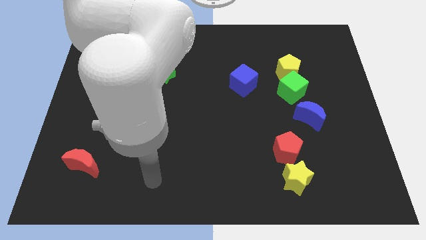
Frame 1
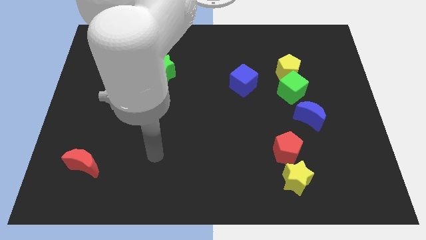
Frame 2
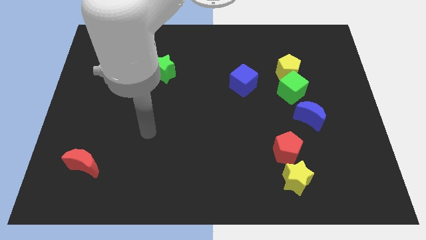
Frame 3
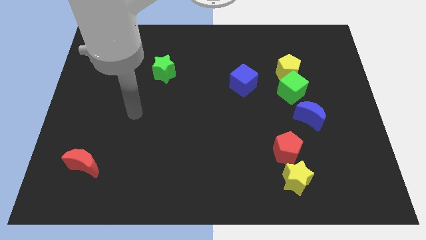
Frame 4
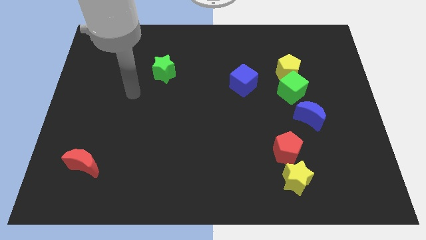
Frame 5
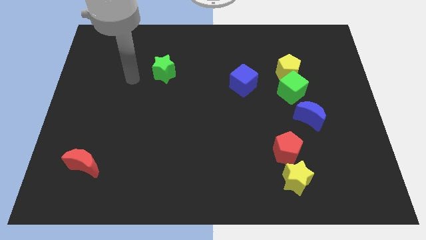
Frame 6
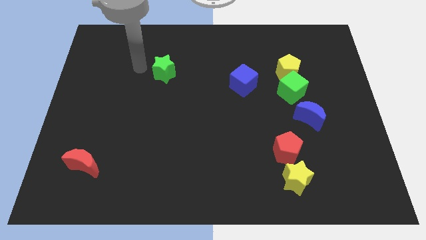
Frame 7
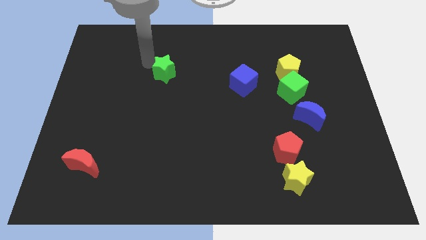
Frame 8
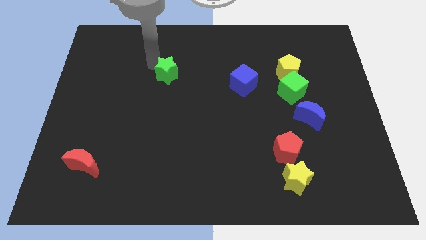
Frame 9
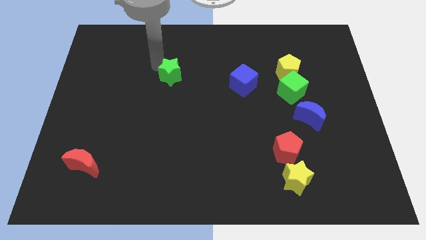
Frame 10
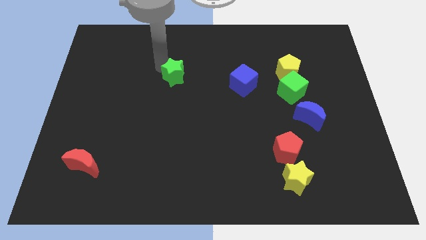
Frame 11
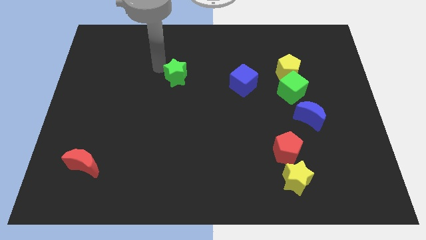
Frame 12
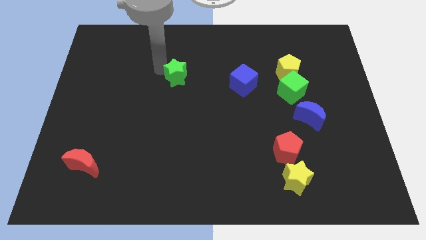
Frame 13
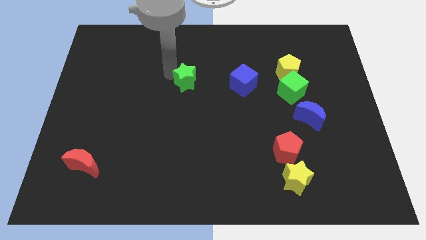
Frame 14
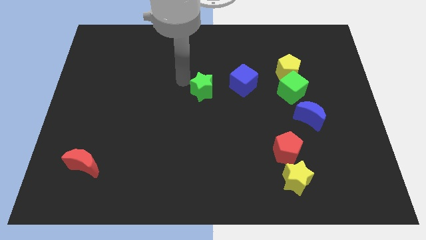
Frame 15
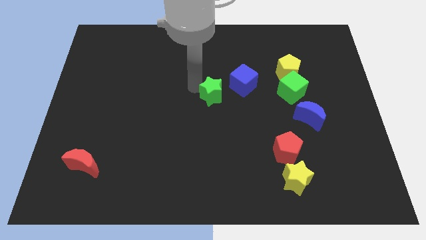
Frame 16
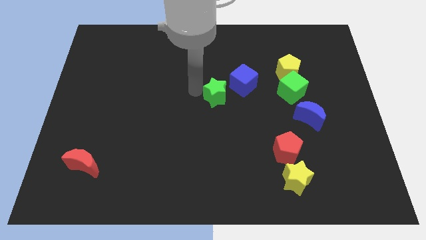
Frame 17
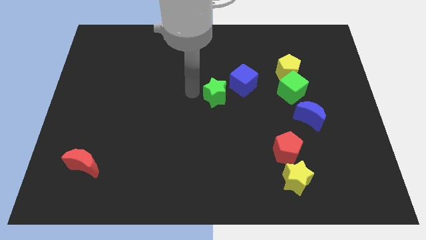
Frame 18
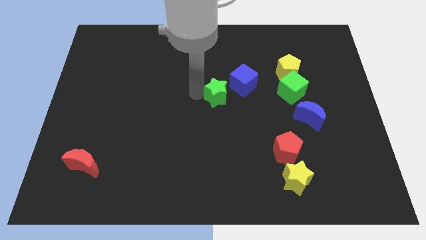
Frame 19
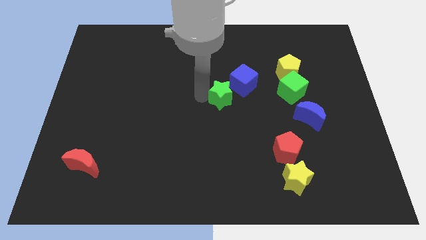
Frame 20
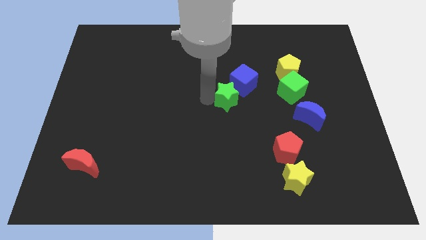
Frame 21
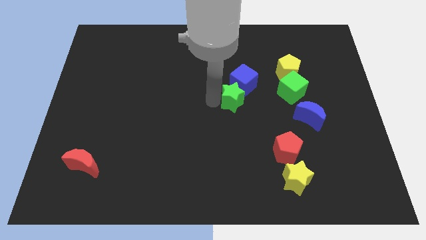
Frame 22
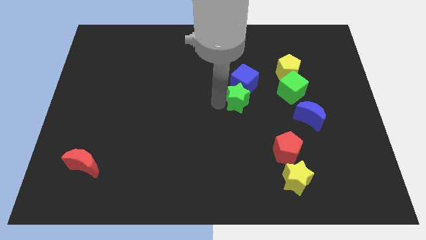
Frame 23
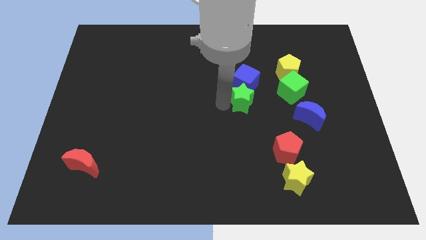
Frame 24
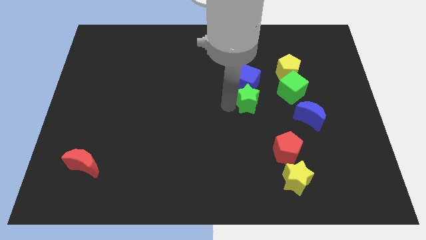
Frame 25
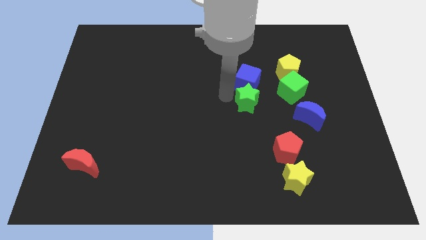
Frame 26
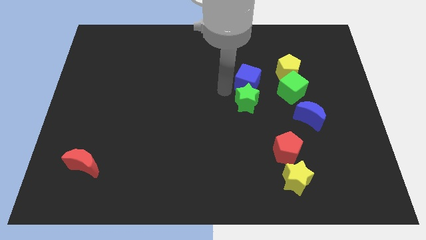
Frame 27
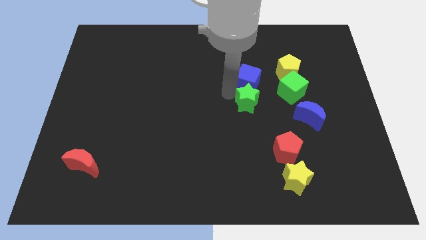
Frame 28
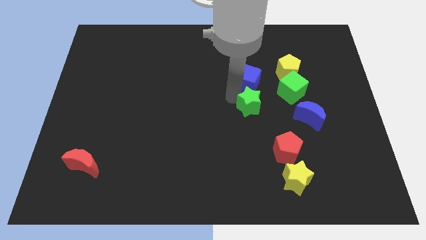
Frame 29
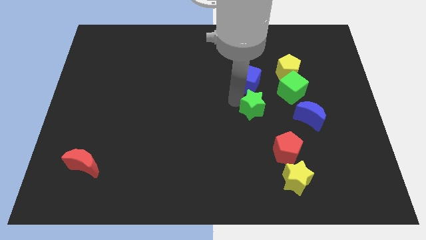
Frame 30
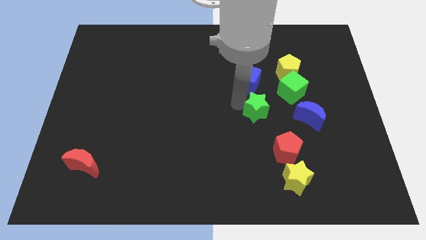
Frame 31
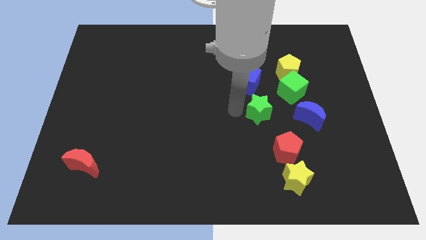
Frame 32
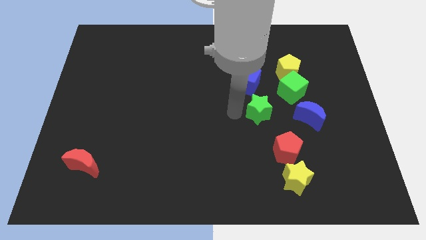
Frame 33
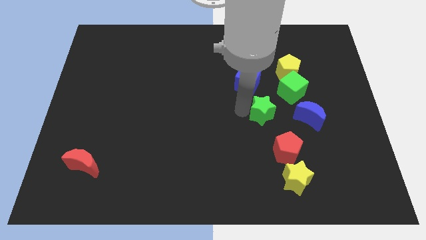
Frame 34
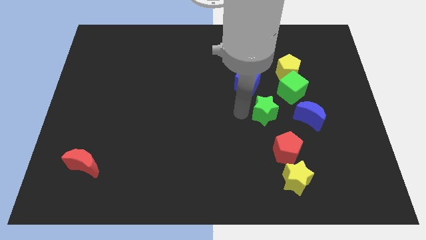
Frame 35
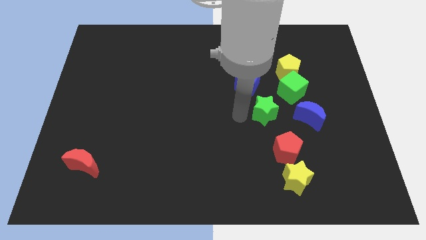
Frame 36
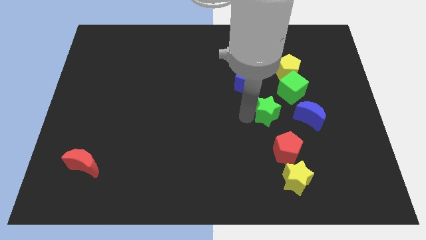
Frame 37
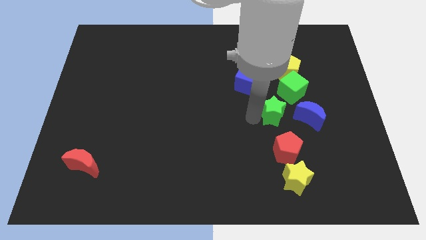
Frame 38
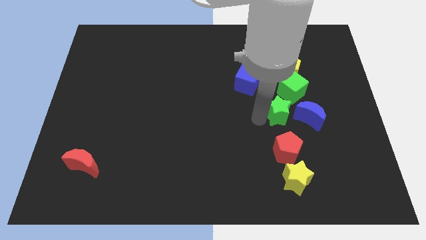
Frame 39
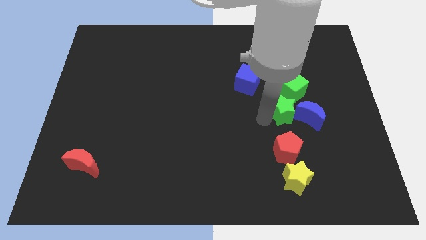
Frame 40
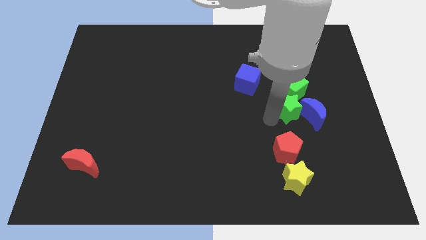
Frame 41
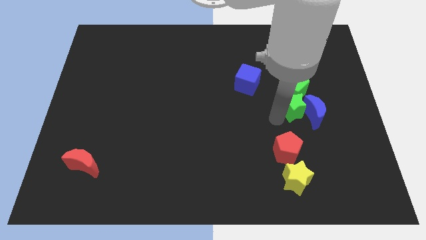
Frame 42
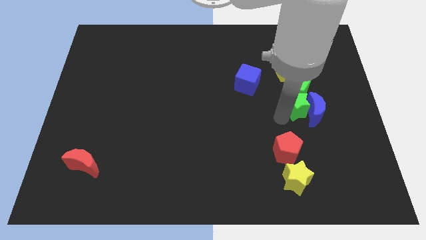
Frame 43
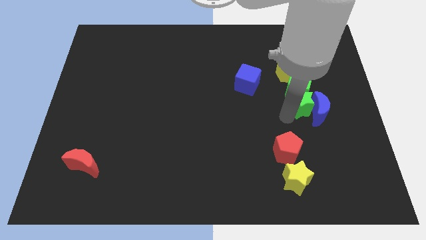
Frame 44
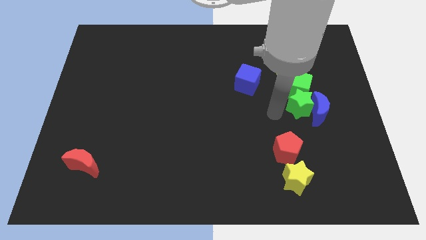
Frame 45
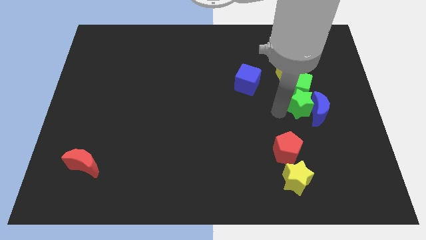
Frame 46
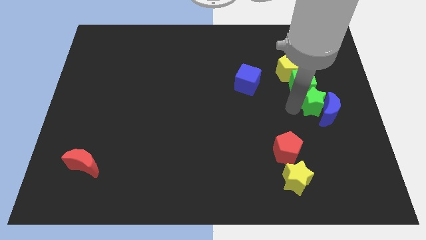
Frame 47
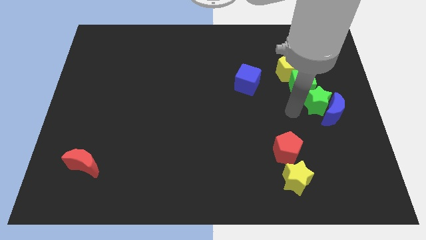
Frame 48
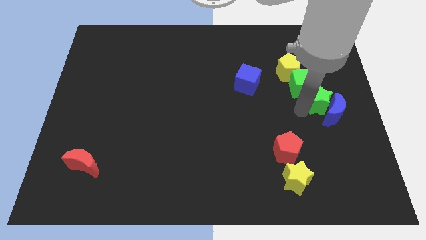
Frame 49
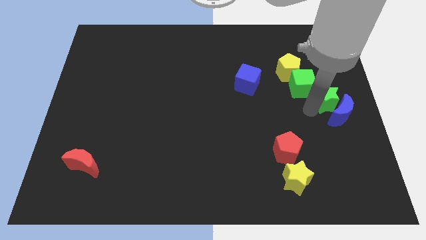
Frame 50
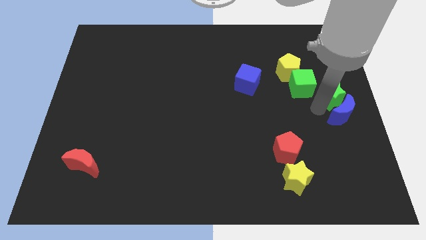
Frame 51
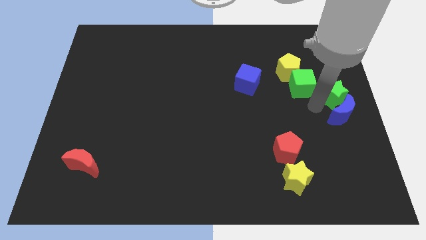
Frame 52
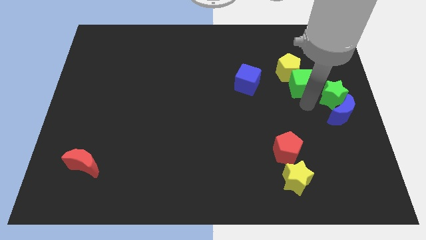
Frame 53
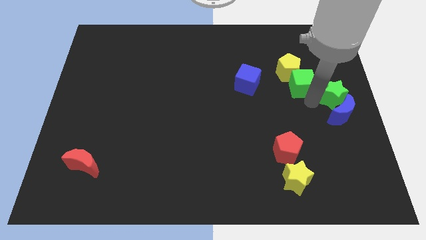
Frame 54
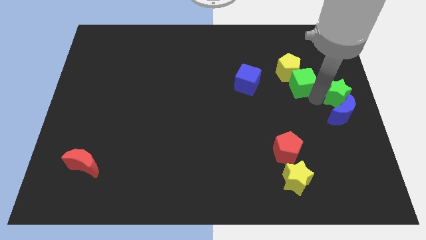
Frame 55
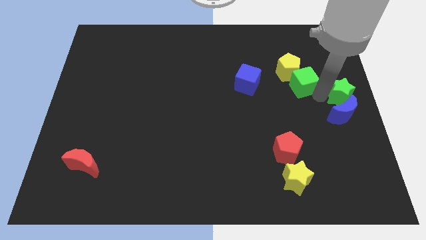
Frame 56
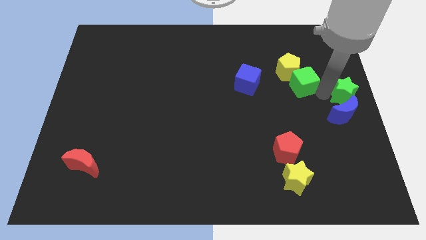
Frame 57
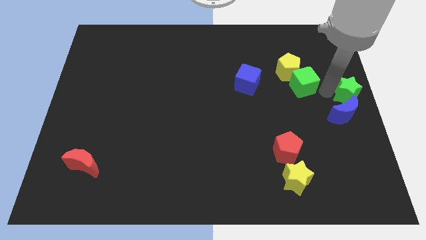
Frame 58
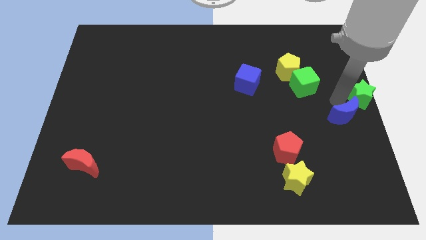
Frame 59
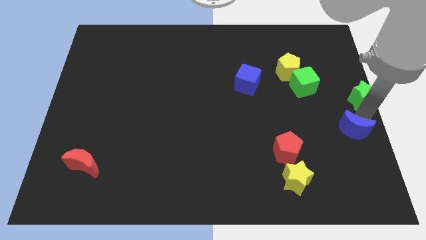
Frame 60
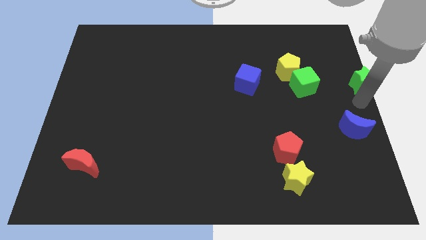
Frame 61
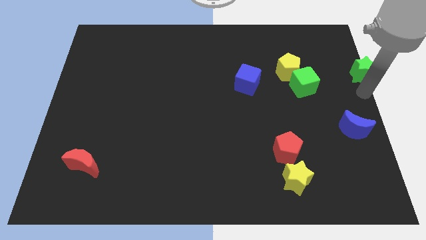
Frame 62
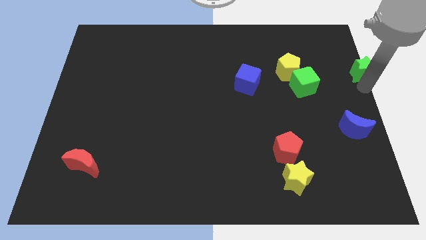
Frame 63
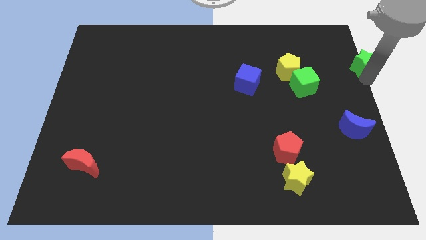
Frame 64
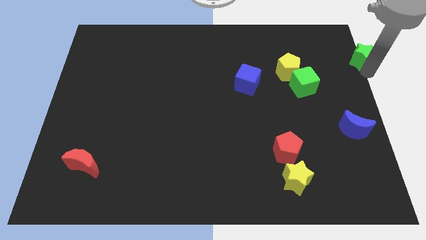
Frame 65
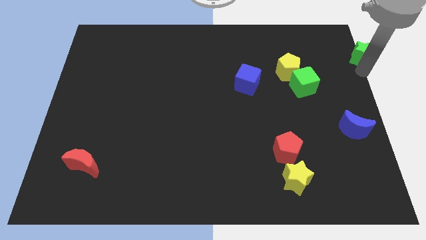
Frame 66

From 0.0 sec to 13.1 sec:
move the green star to the upper right corner

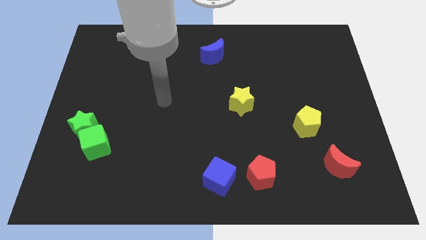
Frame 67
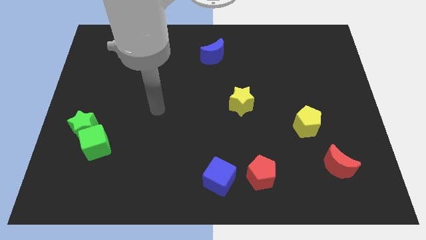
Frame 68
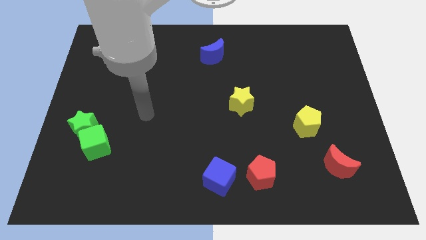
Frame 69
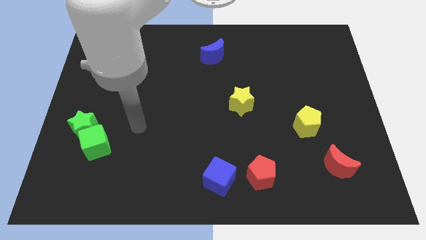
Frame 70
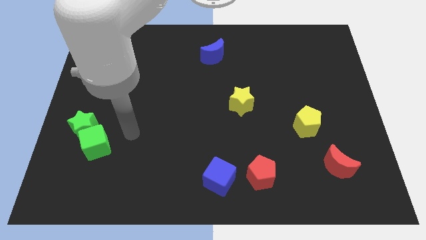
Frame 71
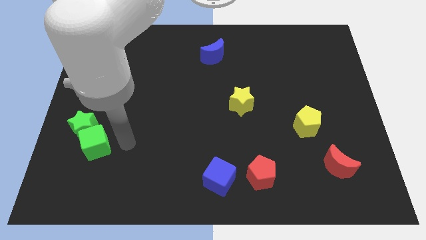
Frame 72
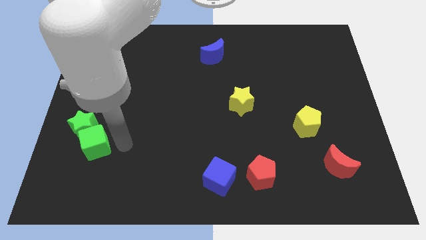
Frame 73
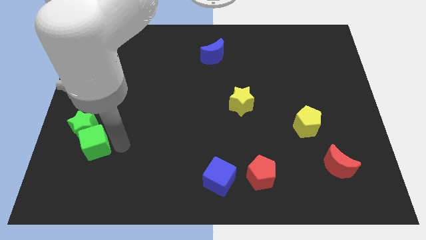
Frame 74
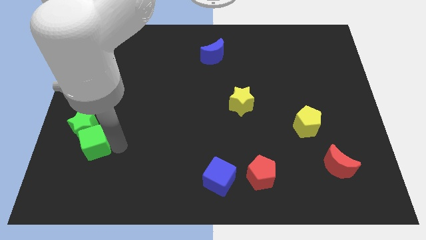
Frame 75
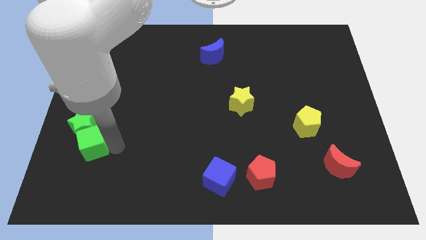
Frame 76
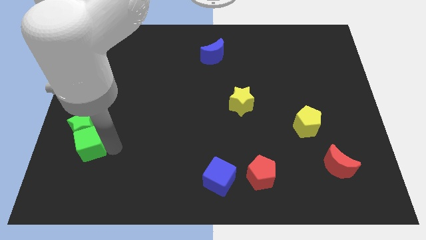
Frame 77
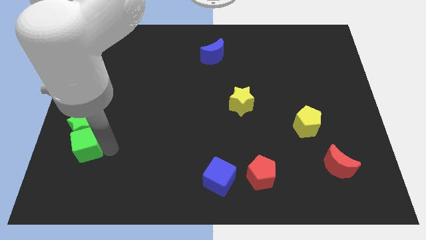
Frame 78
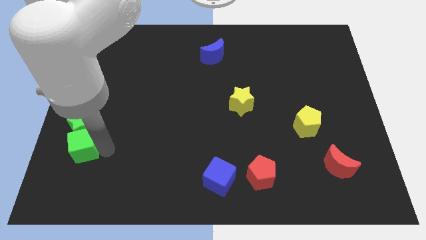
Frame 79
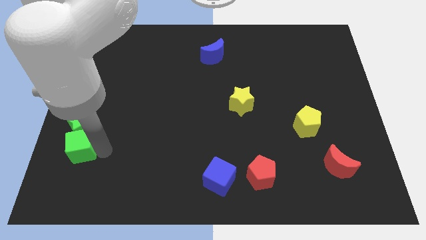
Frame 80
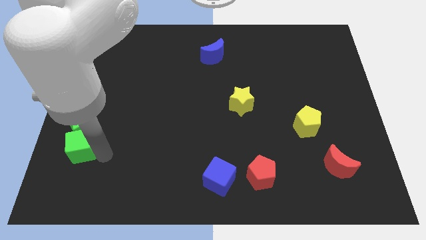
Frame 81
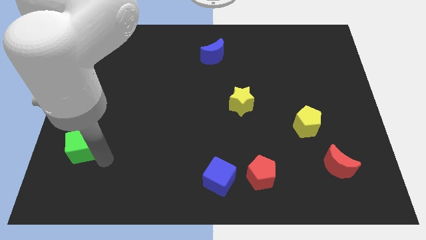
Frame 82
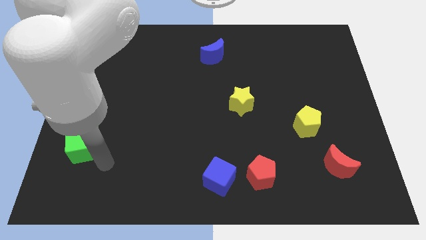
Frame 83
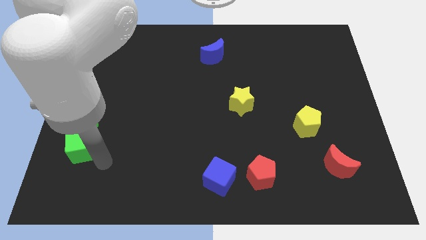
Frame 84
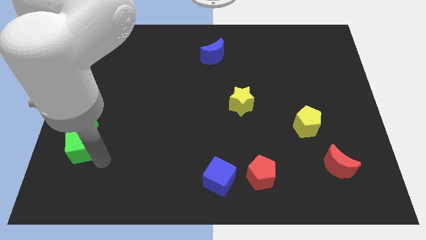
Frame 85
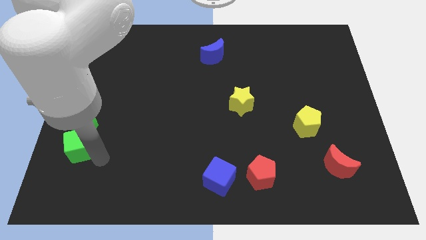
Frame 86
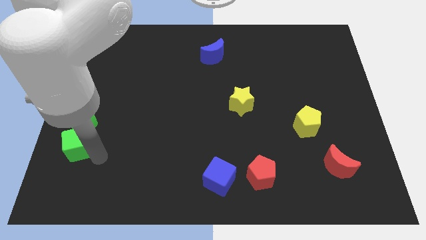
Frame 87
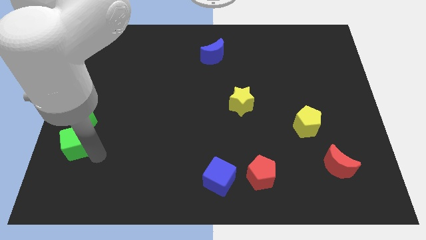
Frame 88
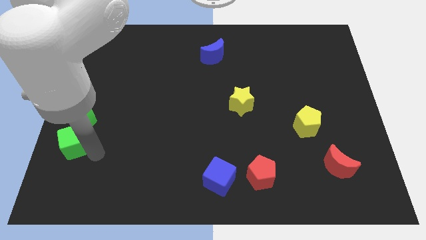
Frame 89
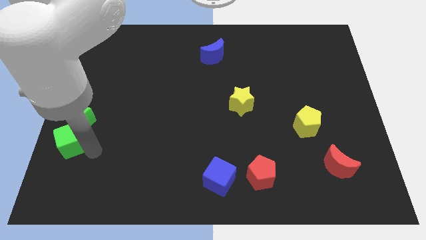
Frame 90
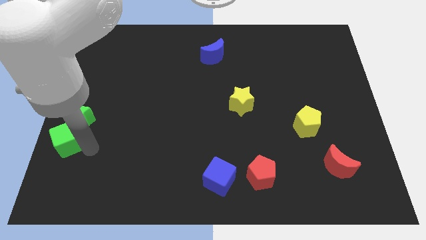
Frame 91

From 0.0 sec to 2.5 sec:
move the green cube to the center left
